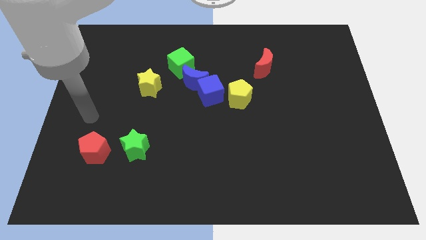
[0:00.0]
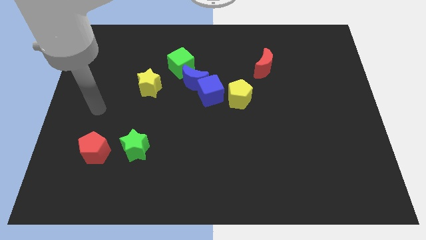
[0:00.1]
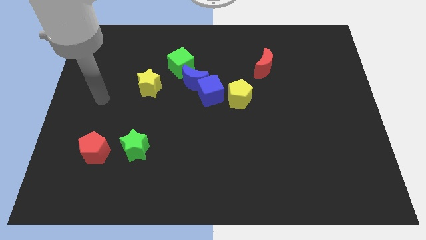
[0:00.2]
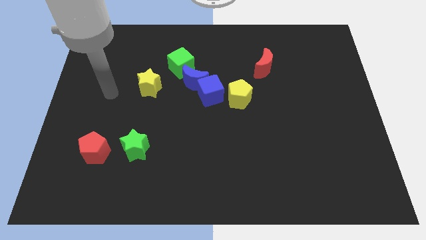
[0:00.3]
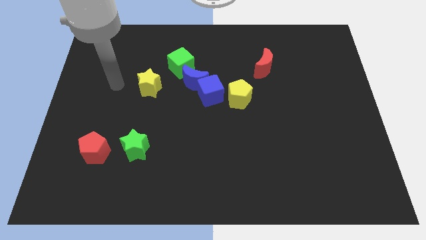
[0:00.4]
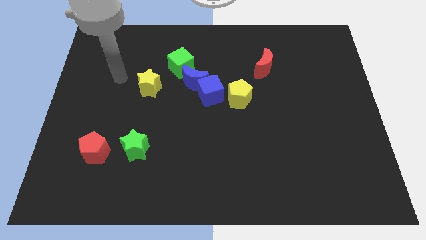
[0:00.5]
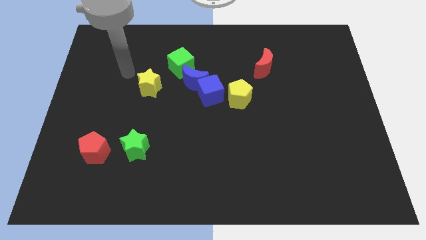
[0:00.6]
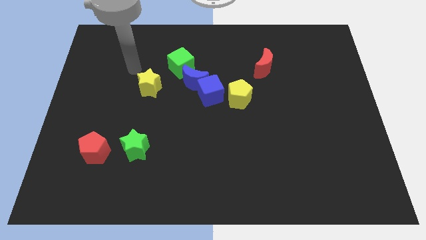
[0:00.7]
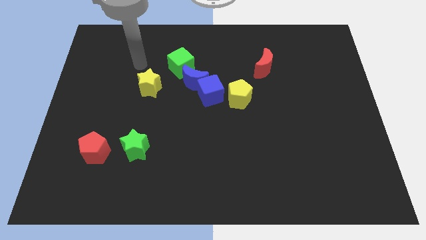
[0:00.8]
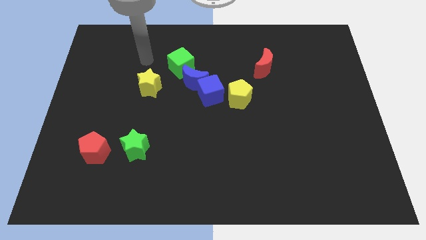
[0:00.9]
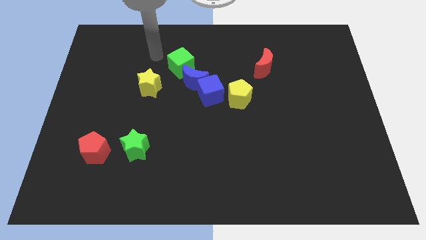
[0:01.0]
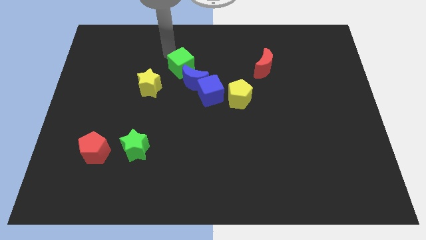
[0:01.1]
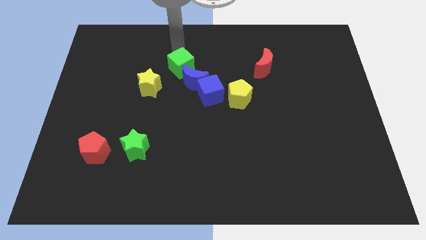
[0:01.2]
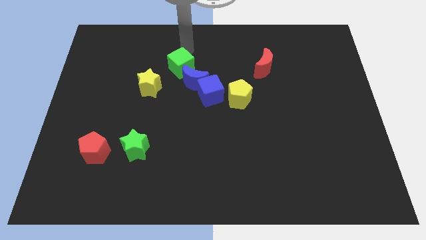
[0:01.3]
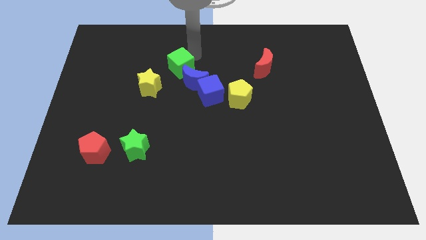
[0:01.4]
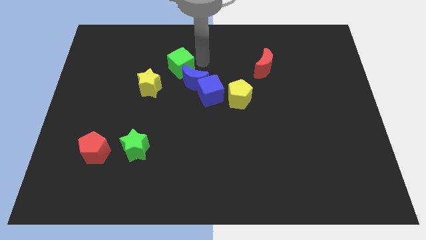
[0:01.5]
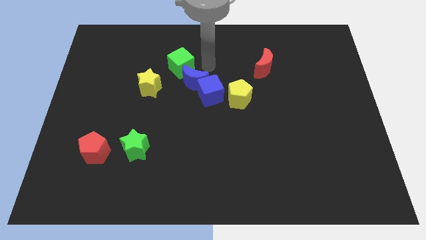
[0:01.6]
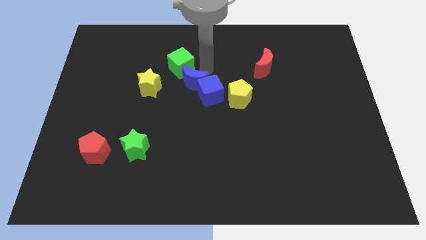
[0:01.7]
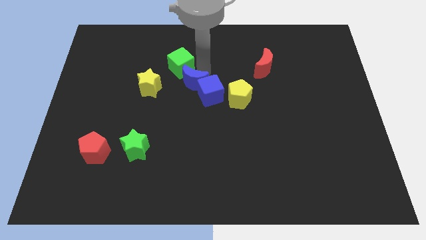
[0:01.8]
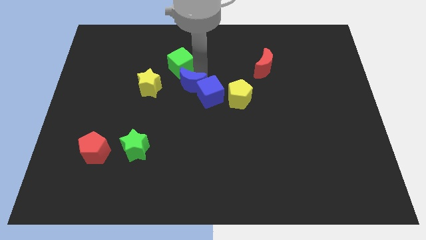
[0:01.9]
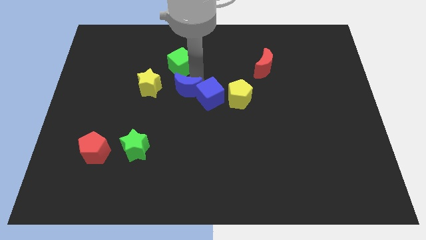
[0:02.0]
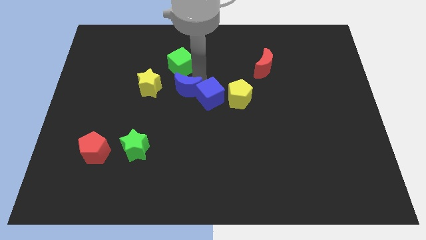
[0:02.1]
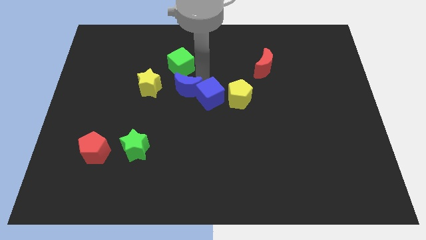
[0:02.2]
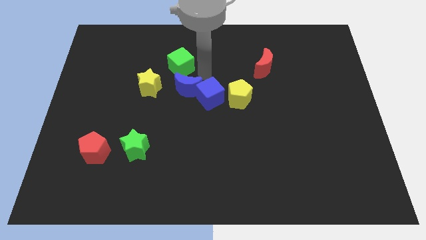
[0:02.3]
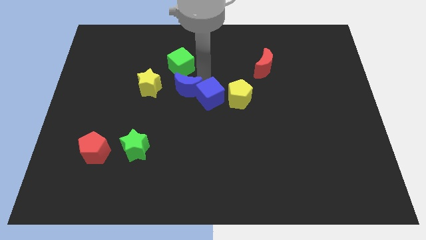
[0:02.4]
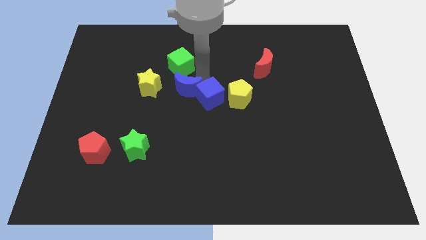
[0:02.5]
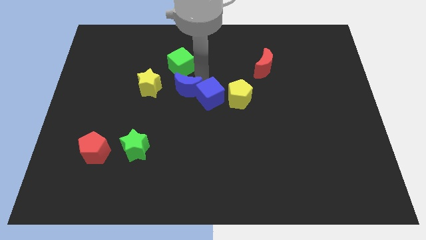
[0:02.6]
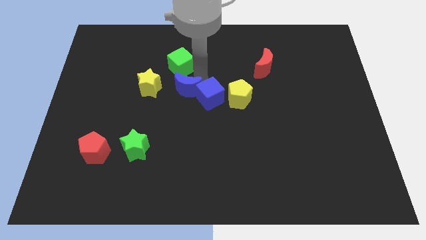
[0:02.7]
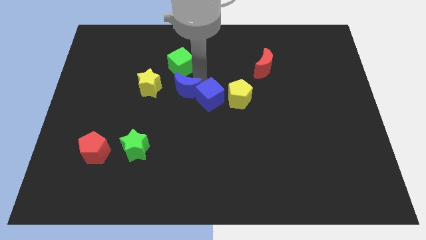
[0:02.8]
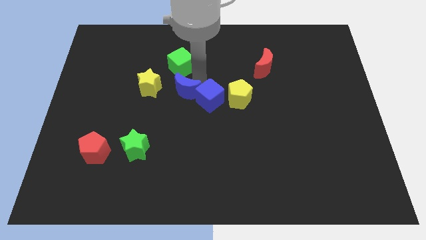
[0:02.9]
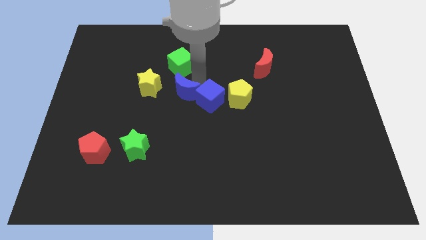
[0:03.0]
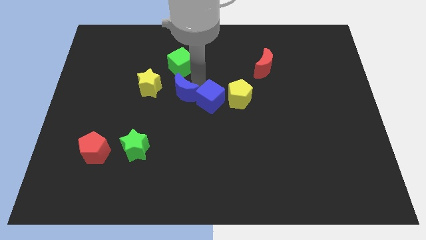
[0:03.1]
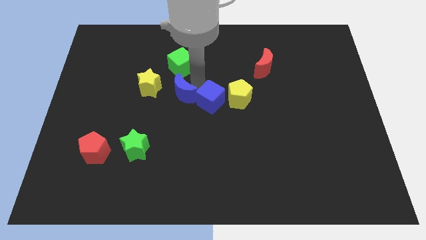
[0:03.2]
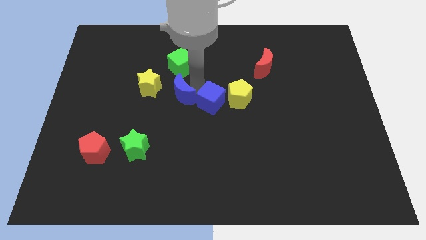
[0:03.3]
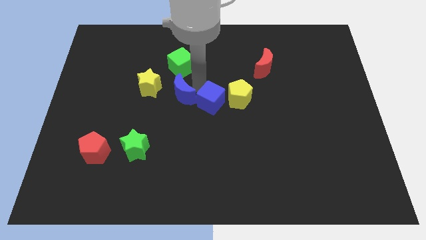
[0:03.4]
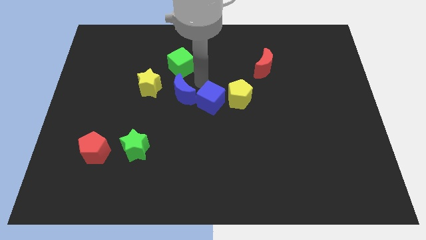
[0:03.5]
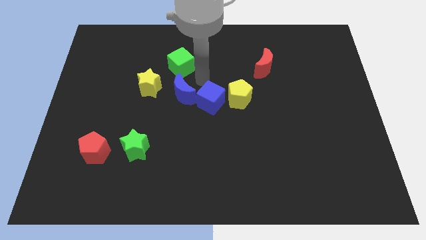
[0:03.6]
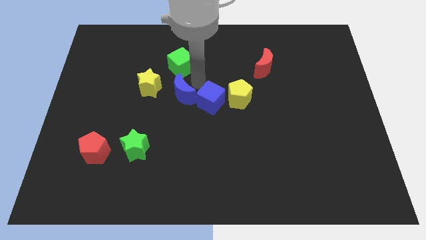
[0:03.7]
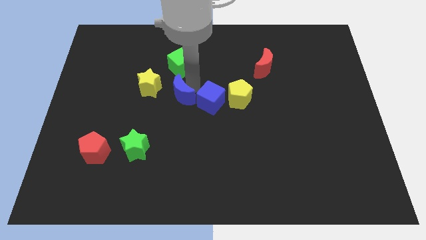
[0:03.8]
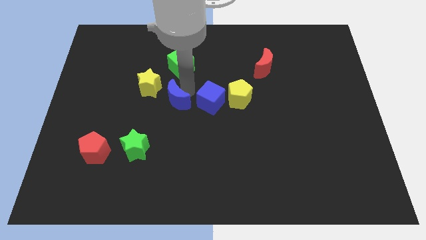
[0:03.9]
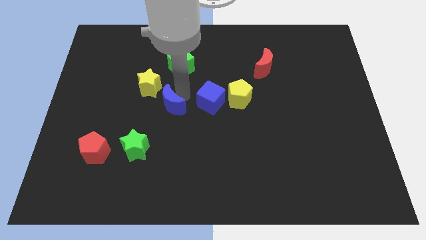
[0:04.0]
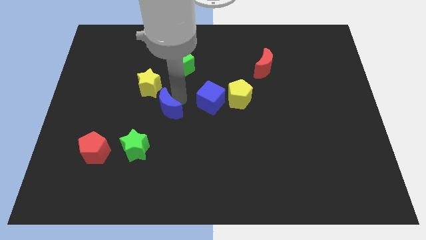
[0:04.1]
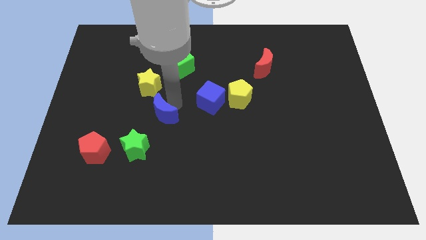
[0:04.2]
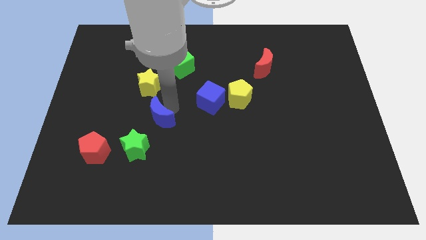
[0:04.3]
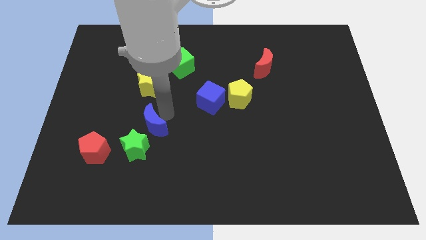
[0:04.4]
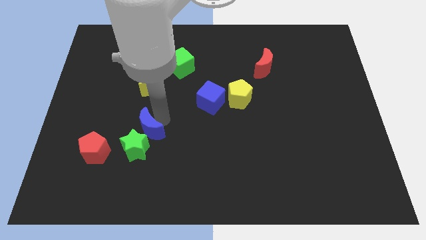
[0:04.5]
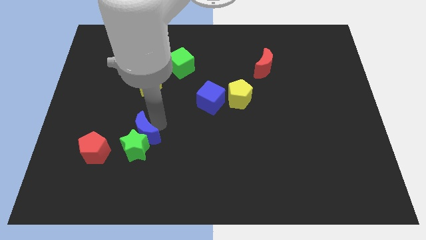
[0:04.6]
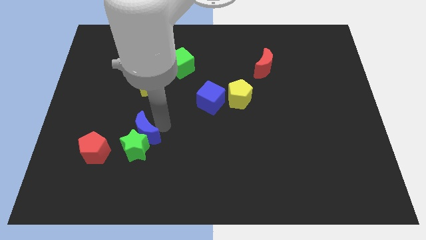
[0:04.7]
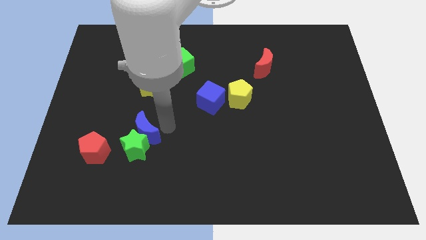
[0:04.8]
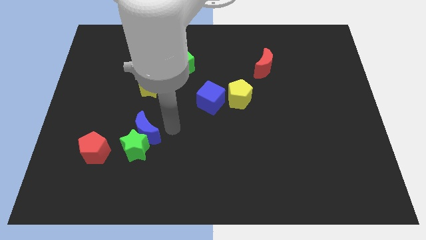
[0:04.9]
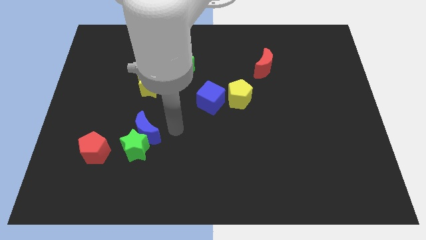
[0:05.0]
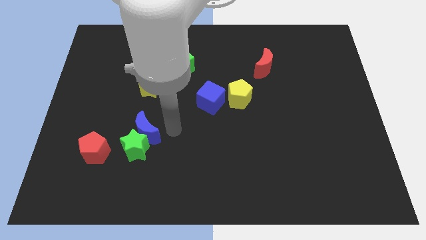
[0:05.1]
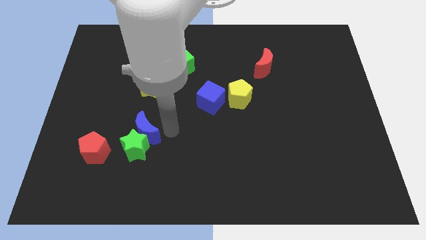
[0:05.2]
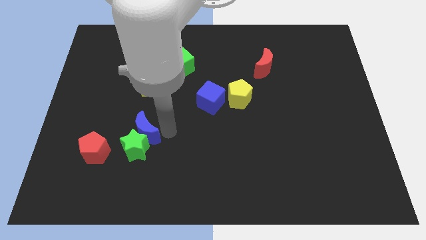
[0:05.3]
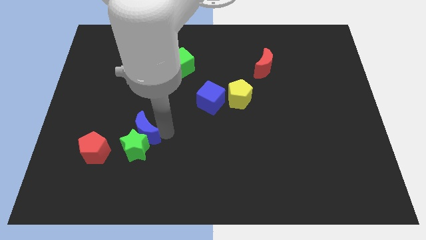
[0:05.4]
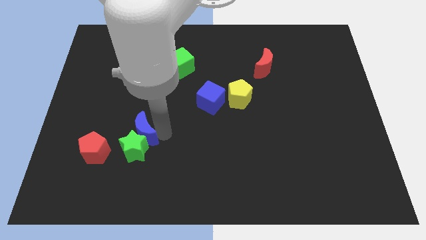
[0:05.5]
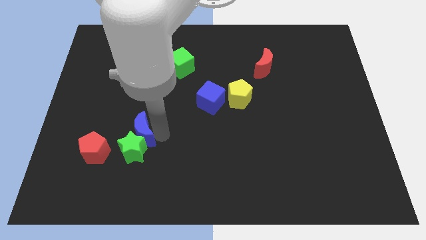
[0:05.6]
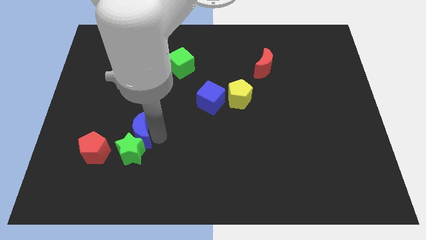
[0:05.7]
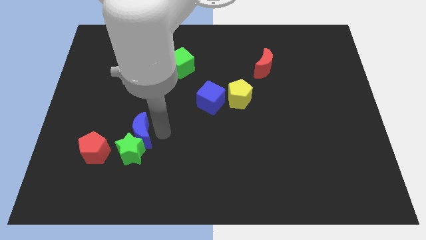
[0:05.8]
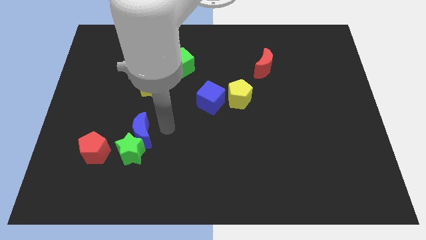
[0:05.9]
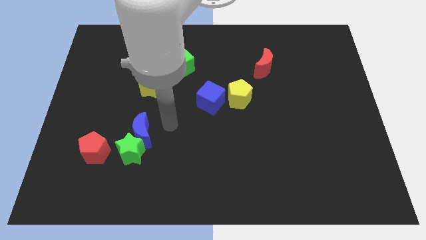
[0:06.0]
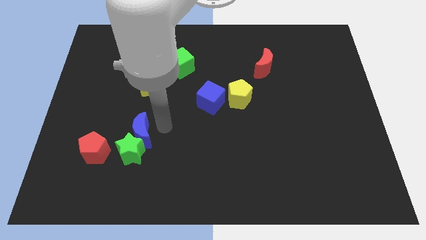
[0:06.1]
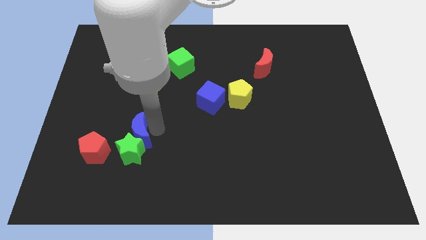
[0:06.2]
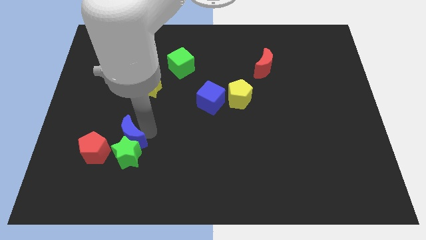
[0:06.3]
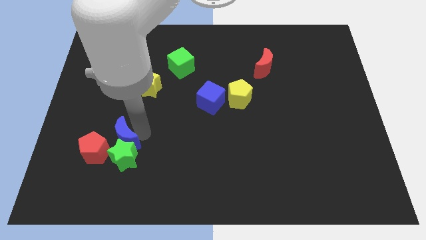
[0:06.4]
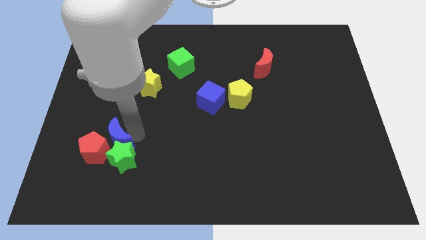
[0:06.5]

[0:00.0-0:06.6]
put the blue moon to the red pentagon
